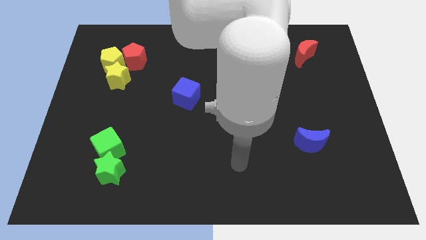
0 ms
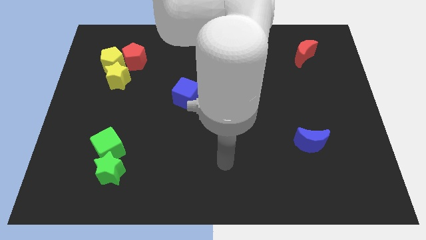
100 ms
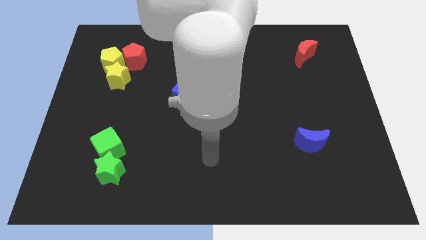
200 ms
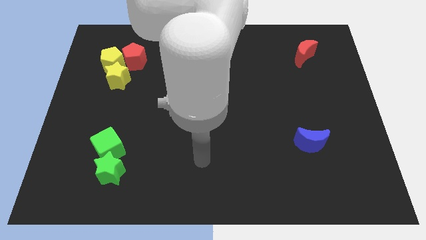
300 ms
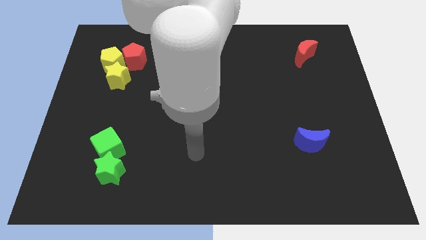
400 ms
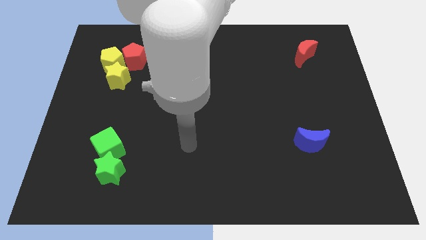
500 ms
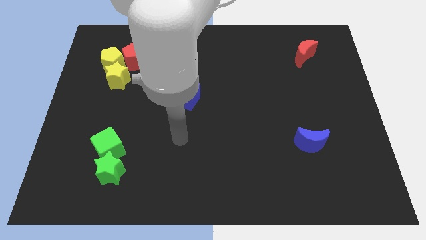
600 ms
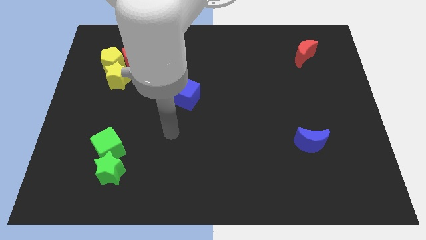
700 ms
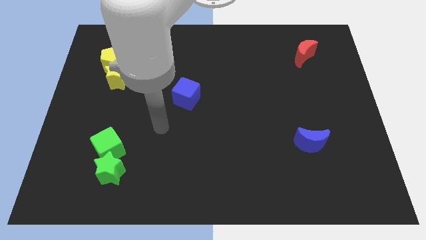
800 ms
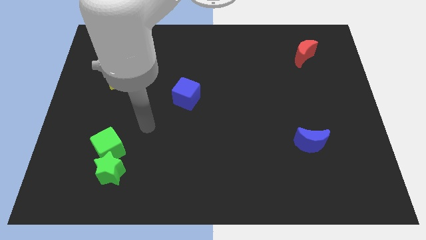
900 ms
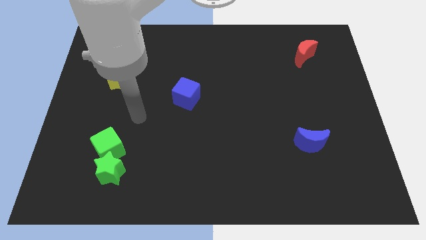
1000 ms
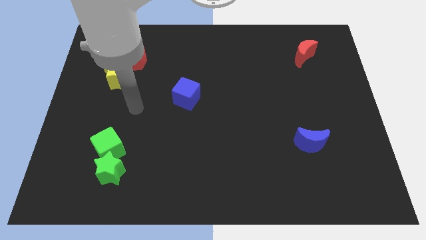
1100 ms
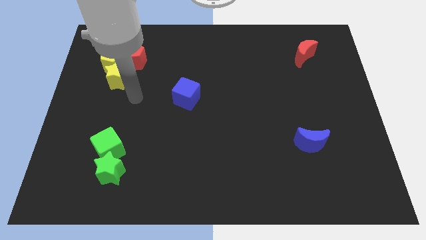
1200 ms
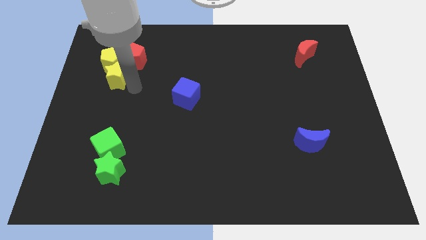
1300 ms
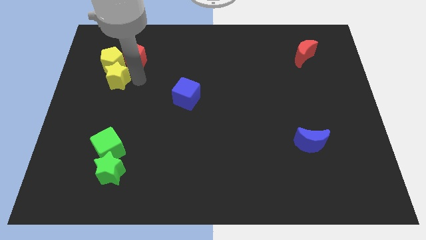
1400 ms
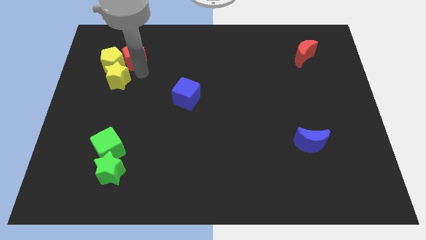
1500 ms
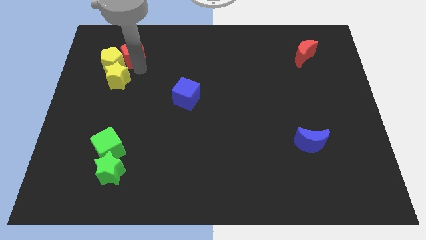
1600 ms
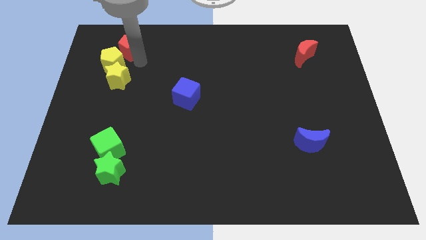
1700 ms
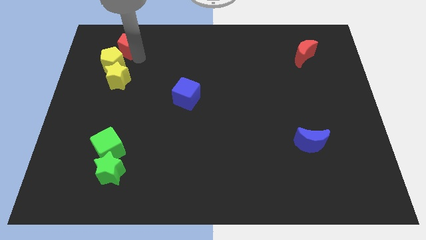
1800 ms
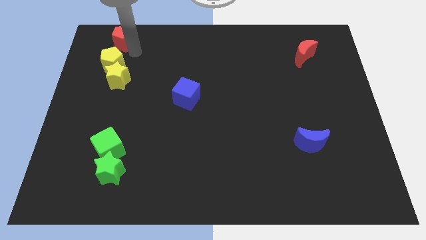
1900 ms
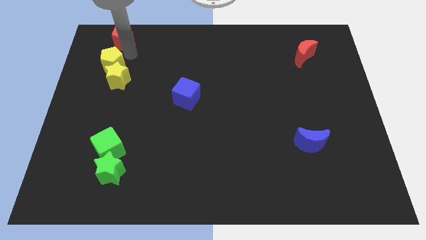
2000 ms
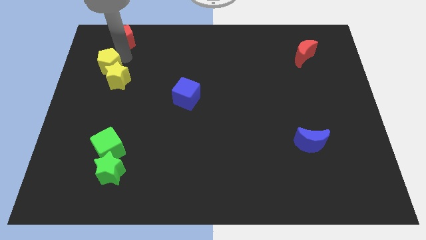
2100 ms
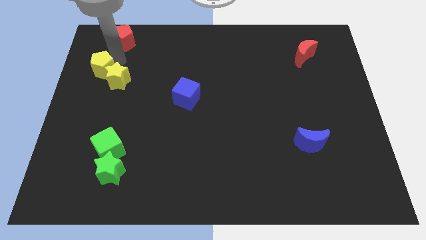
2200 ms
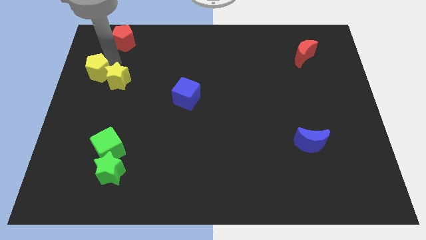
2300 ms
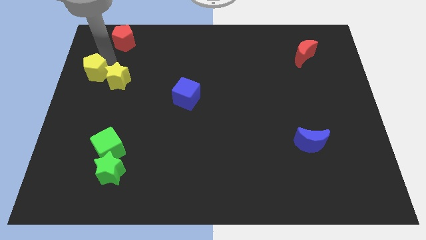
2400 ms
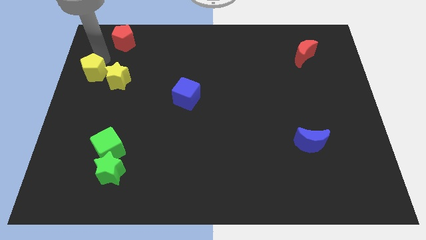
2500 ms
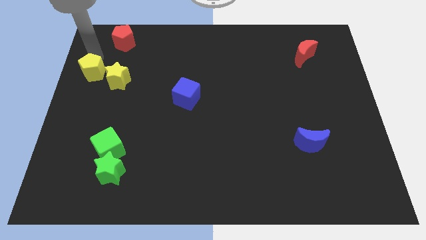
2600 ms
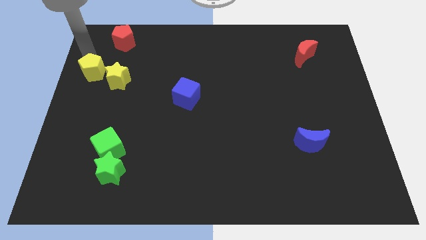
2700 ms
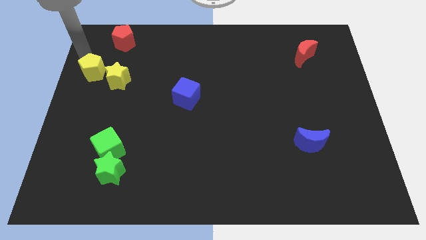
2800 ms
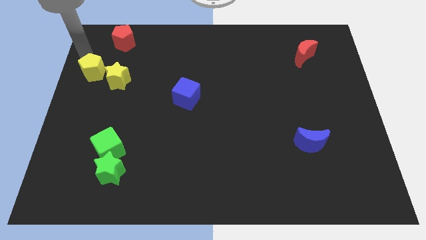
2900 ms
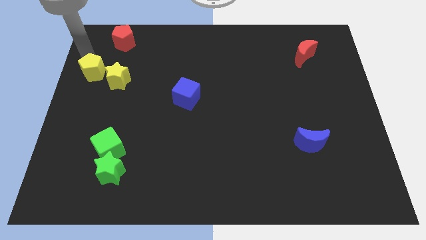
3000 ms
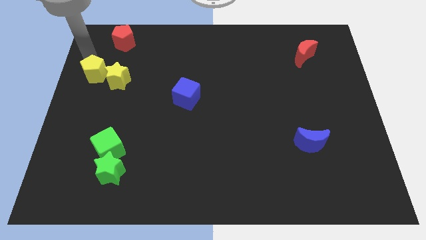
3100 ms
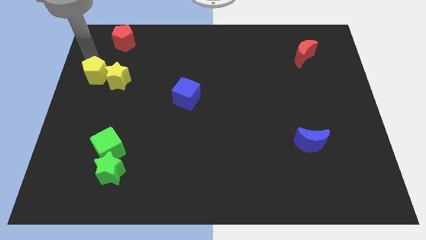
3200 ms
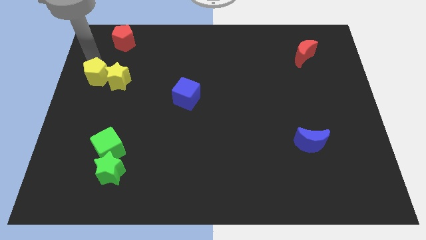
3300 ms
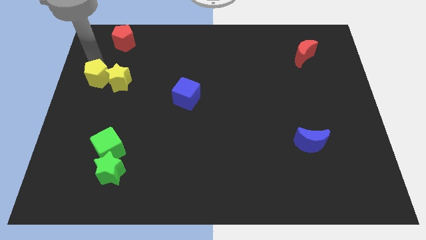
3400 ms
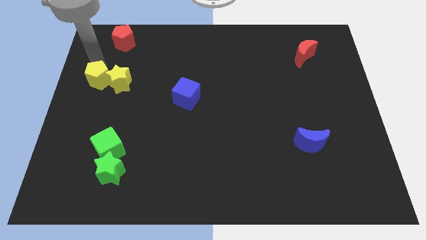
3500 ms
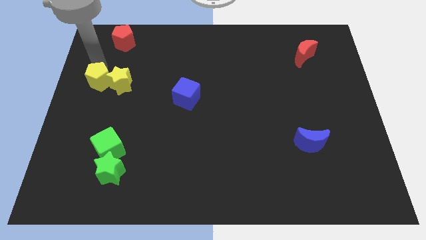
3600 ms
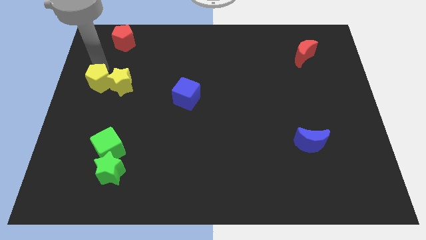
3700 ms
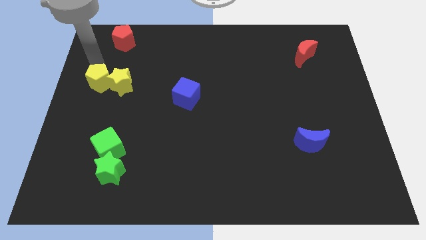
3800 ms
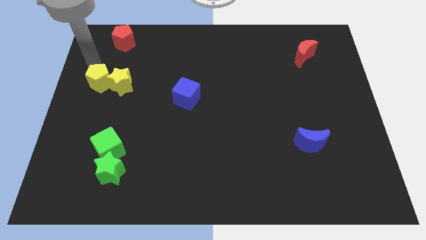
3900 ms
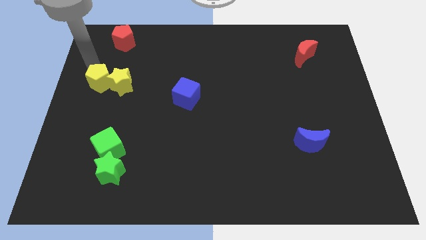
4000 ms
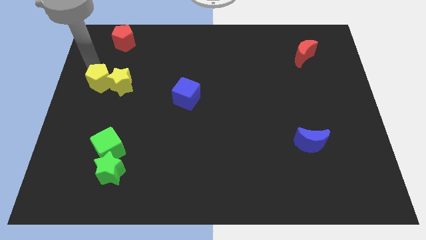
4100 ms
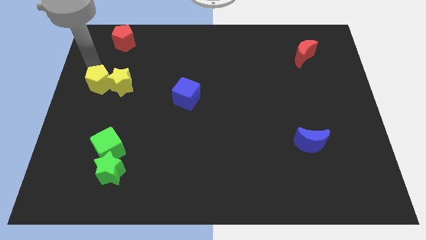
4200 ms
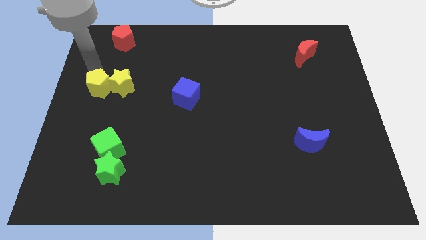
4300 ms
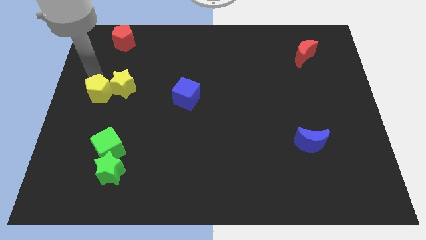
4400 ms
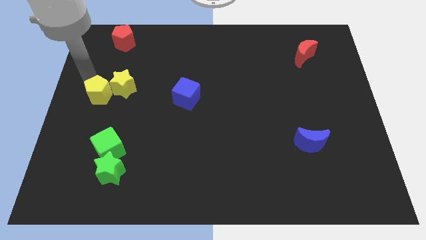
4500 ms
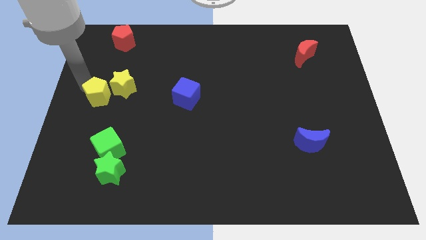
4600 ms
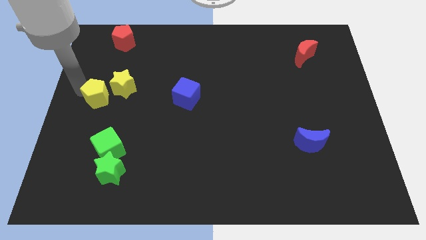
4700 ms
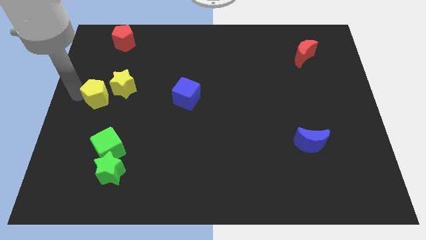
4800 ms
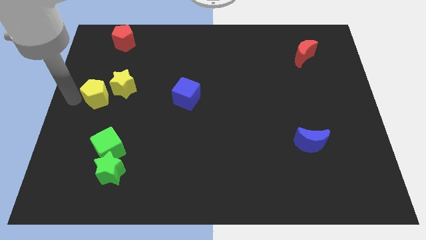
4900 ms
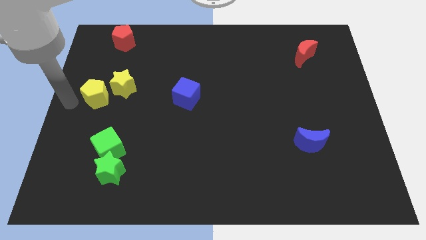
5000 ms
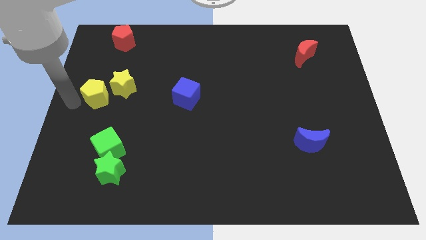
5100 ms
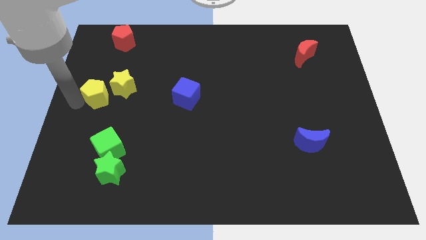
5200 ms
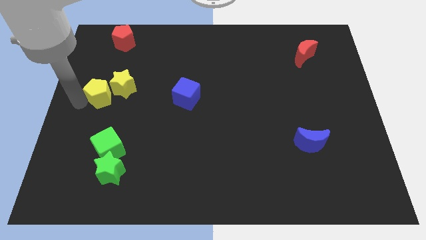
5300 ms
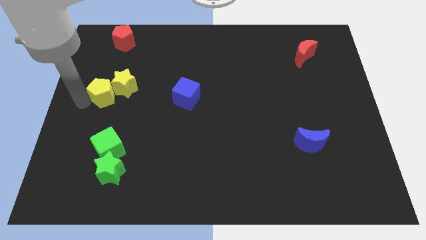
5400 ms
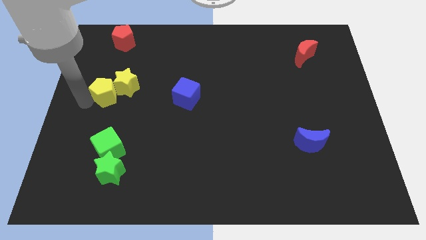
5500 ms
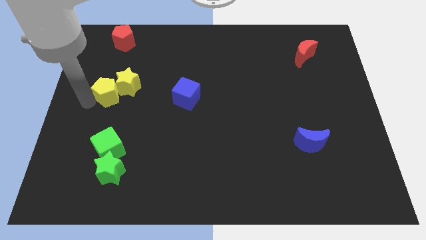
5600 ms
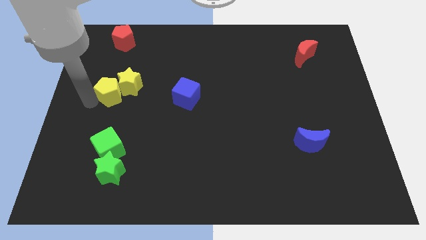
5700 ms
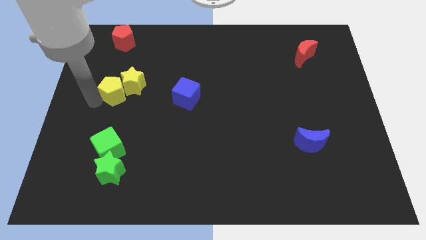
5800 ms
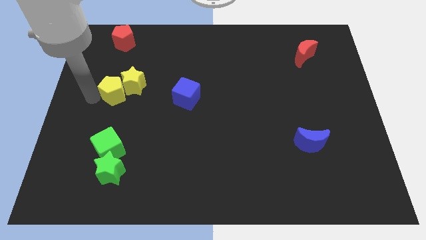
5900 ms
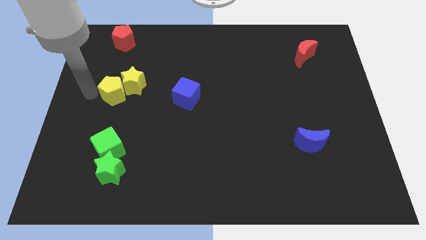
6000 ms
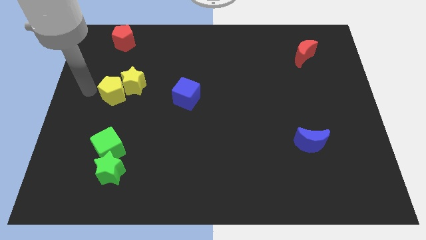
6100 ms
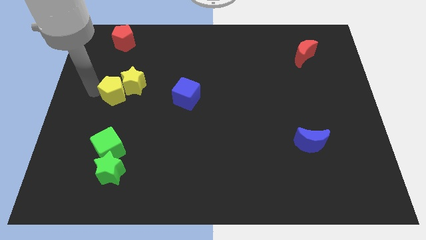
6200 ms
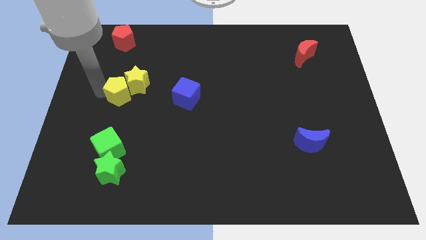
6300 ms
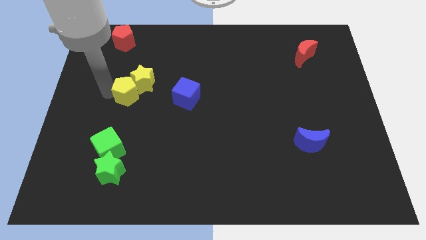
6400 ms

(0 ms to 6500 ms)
put the yellow pentagon left of the blue cube

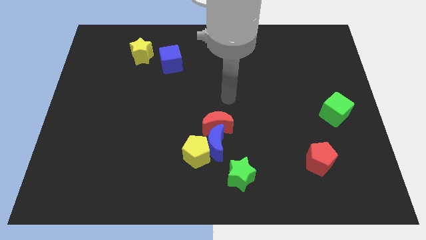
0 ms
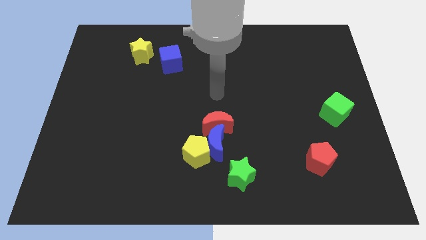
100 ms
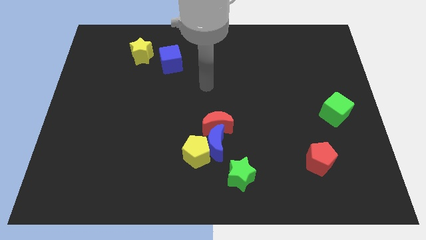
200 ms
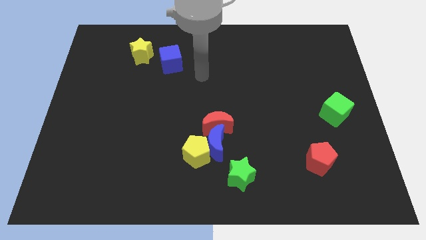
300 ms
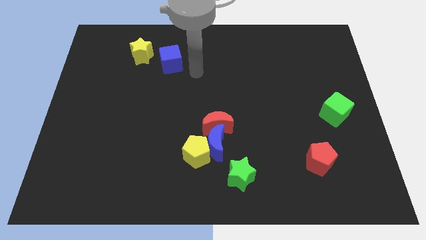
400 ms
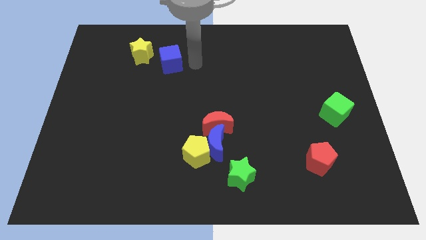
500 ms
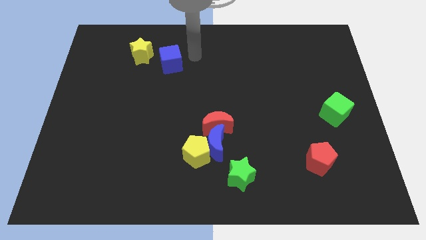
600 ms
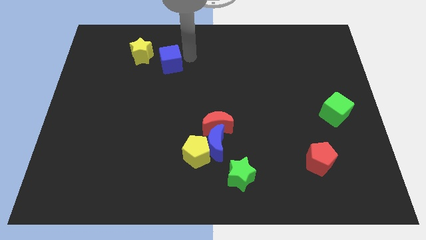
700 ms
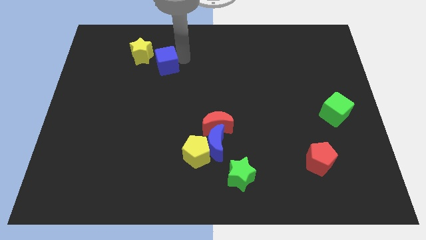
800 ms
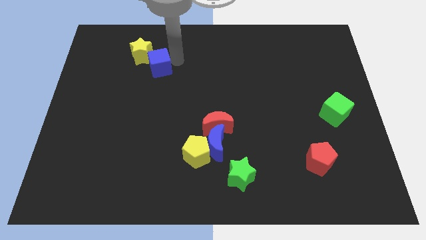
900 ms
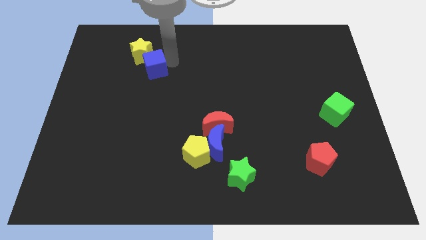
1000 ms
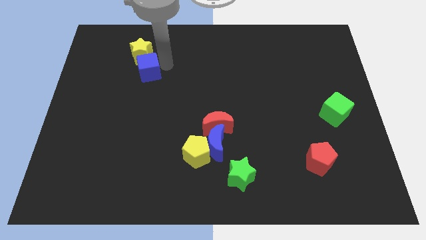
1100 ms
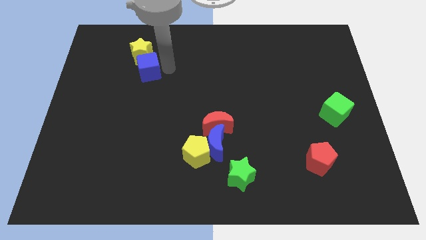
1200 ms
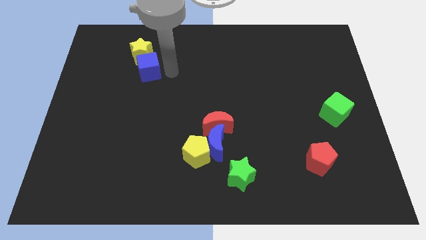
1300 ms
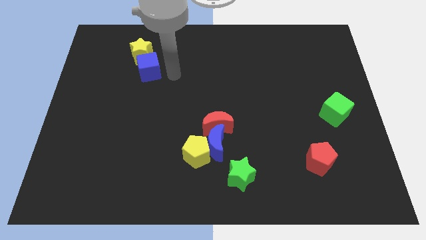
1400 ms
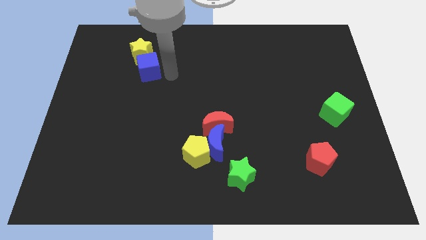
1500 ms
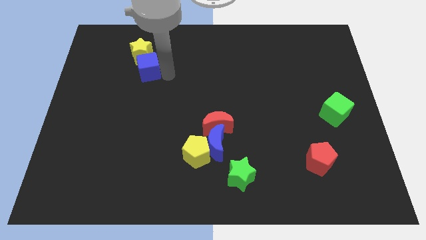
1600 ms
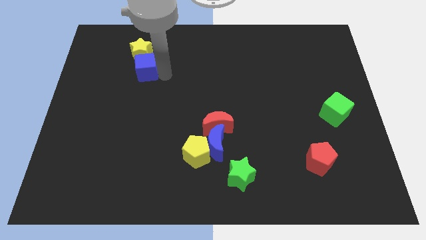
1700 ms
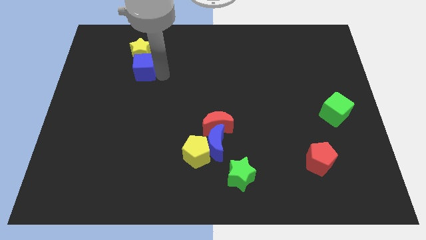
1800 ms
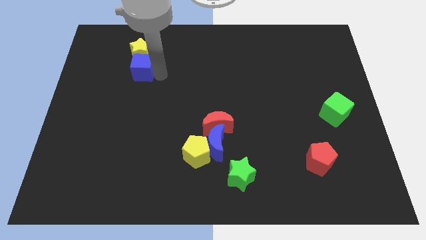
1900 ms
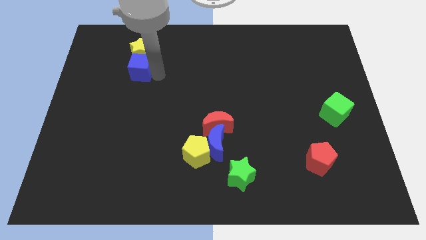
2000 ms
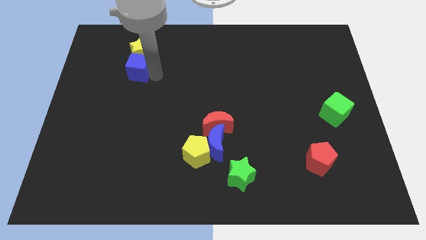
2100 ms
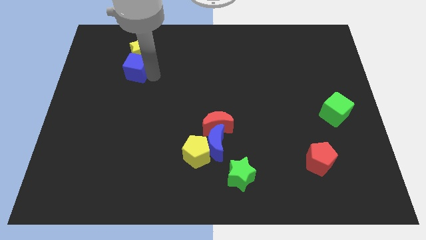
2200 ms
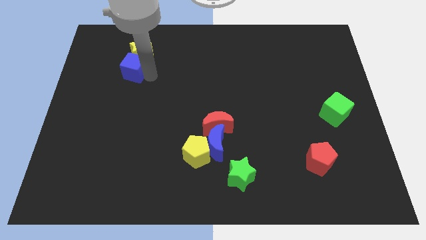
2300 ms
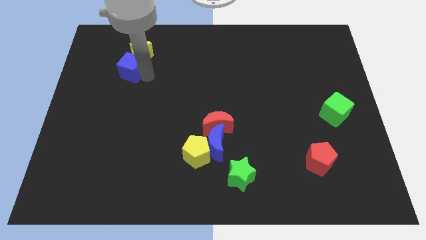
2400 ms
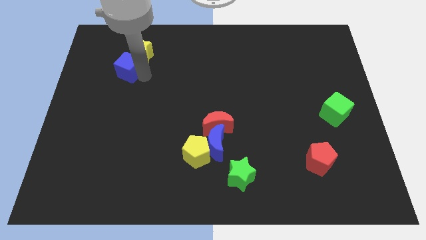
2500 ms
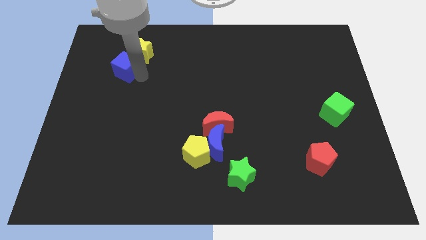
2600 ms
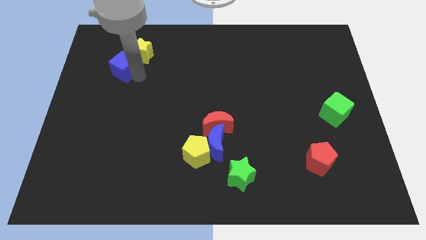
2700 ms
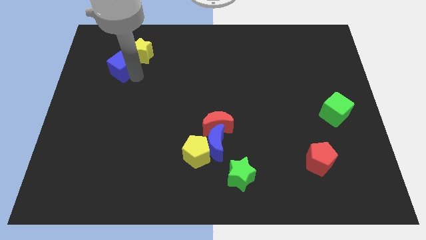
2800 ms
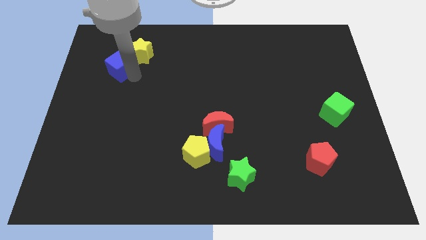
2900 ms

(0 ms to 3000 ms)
push the blue cube to the left side of the yellow star
